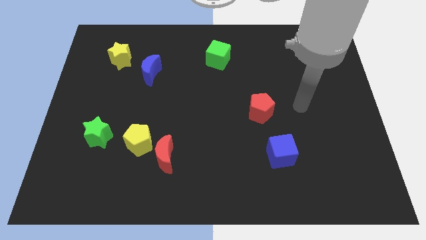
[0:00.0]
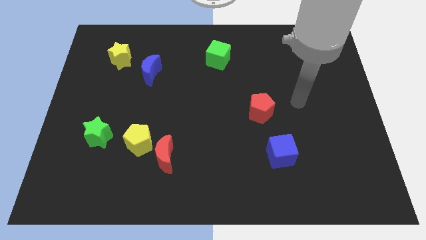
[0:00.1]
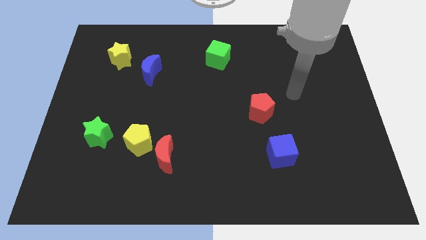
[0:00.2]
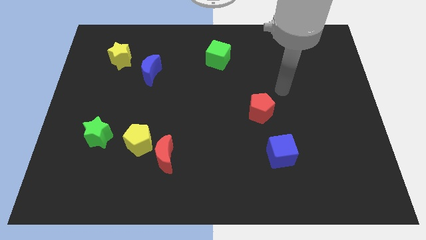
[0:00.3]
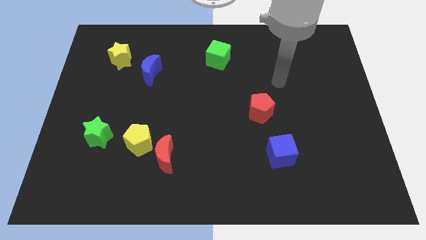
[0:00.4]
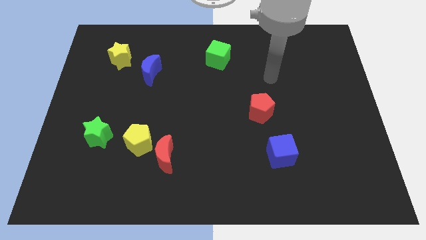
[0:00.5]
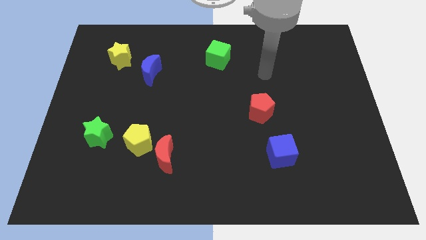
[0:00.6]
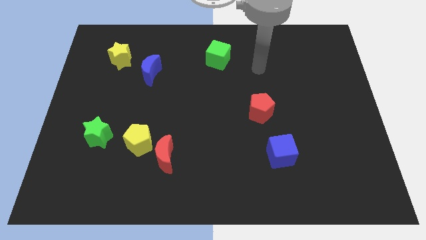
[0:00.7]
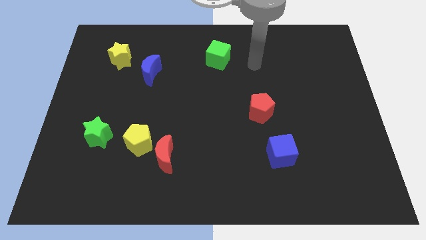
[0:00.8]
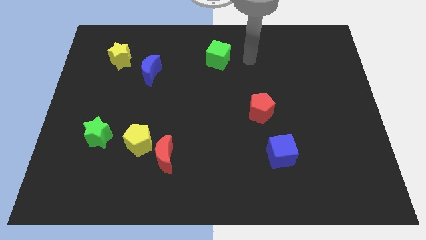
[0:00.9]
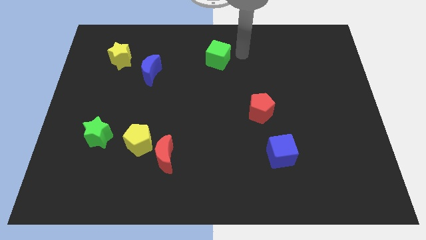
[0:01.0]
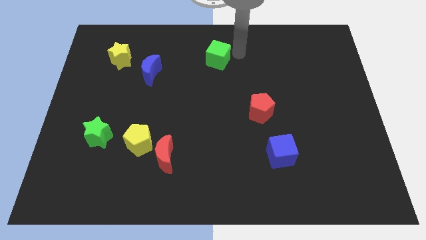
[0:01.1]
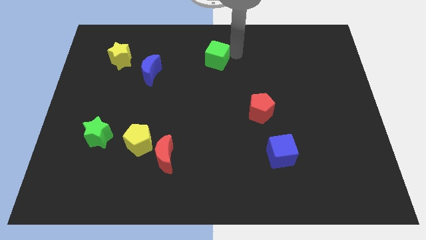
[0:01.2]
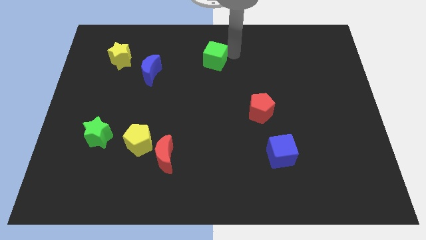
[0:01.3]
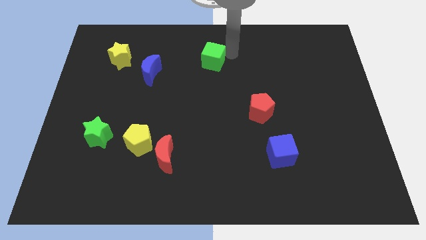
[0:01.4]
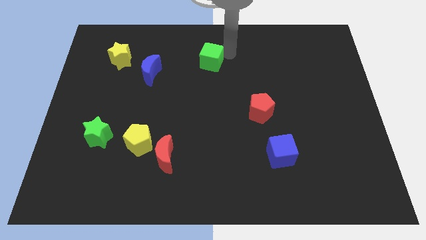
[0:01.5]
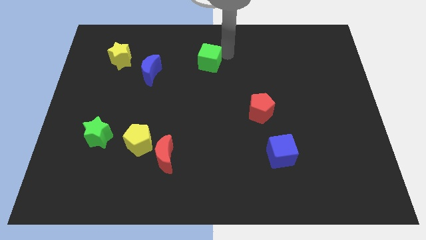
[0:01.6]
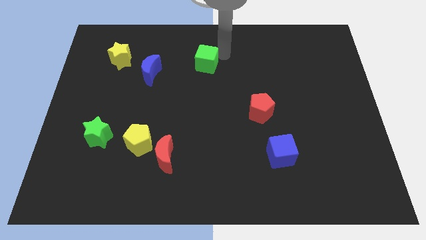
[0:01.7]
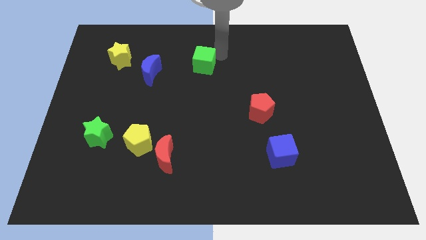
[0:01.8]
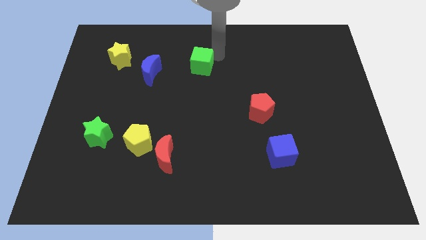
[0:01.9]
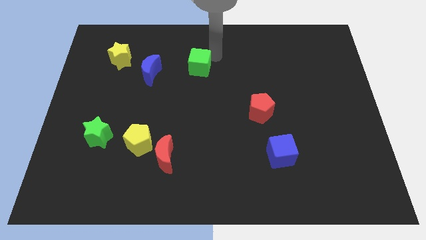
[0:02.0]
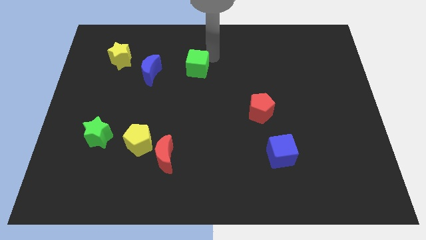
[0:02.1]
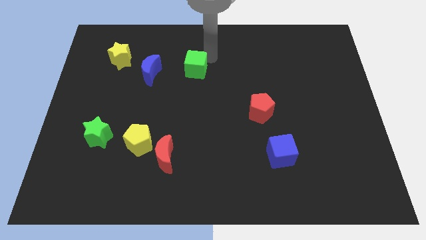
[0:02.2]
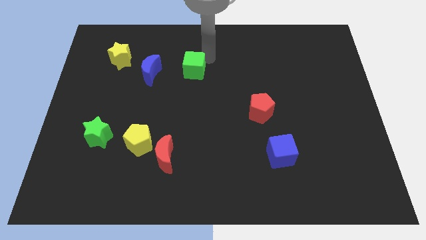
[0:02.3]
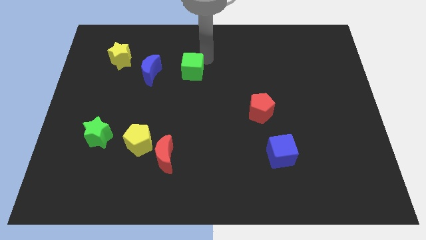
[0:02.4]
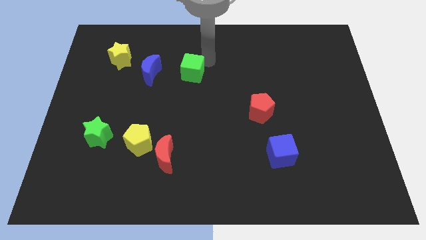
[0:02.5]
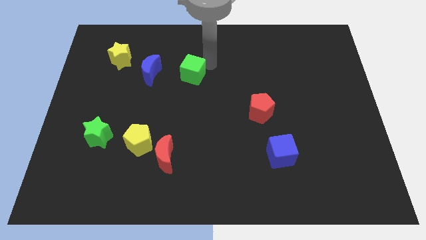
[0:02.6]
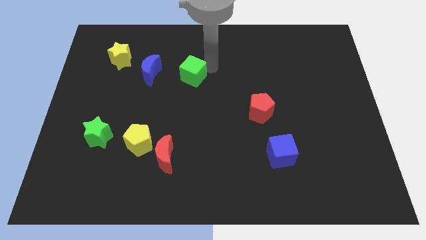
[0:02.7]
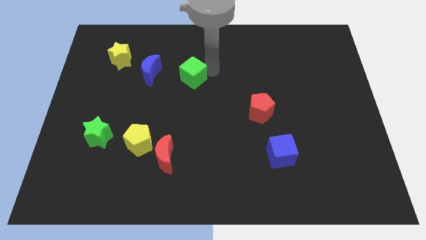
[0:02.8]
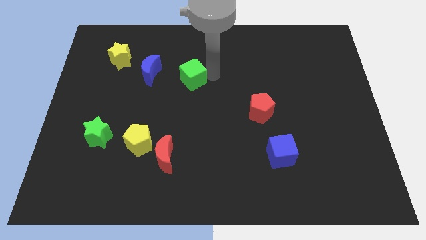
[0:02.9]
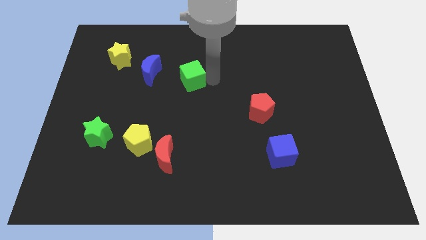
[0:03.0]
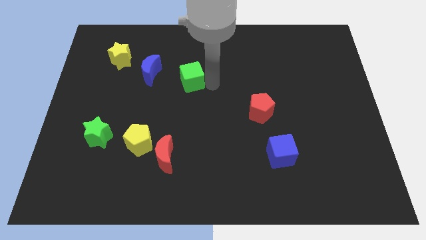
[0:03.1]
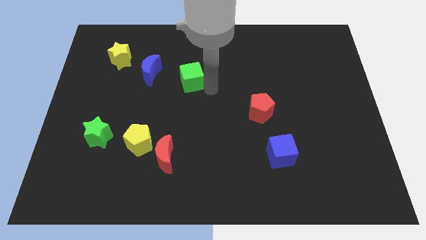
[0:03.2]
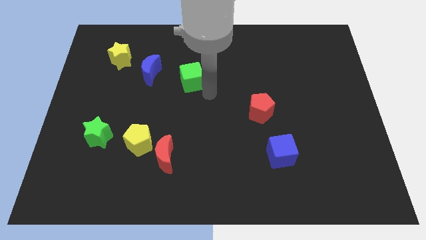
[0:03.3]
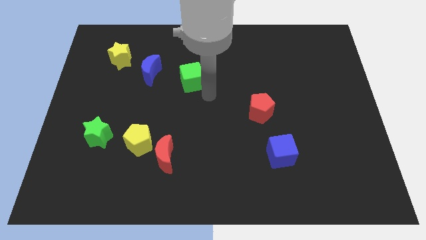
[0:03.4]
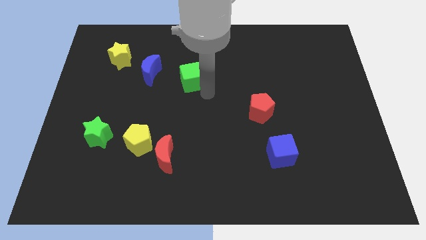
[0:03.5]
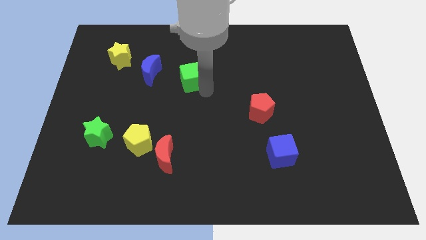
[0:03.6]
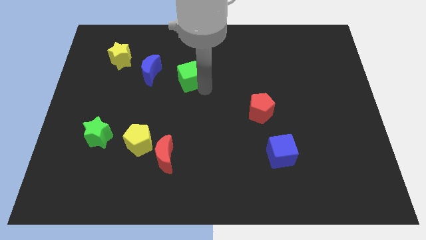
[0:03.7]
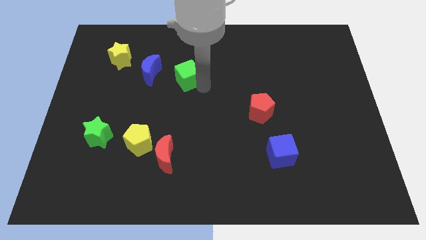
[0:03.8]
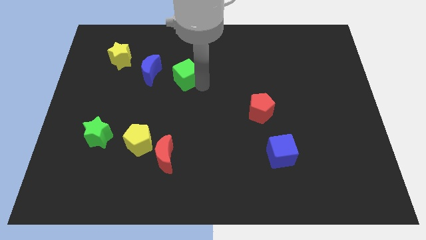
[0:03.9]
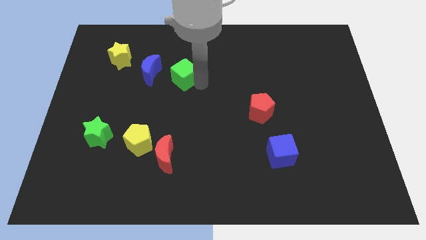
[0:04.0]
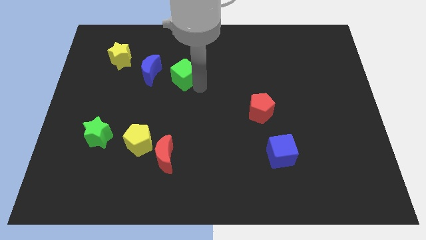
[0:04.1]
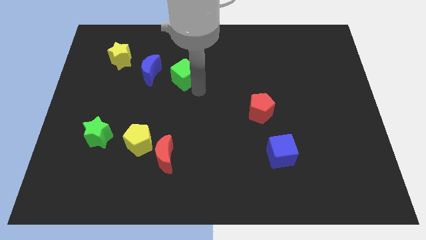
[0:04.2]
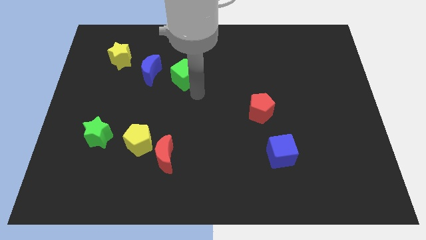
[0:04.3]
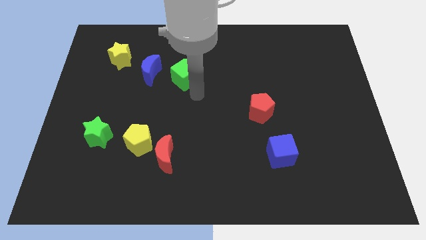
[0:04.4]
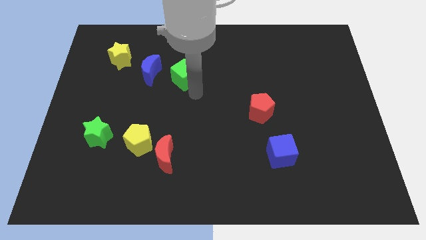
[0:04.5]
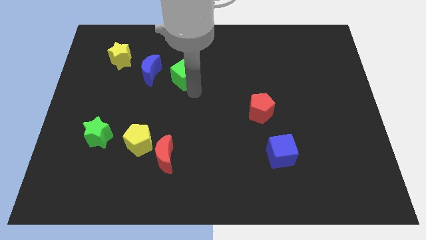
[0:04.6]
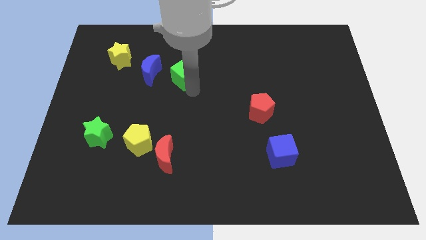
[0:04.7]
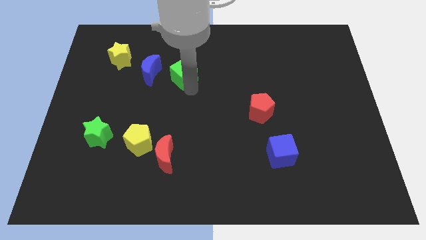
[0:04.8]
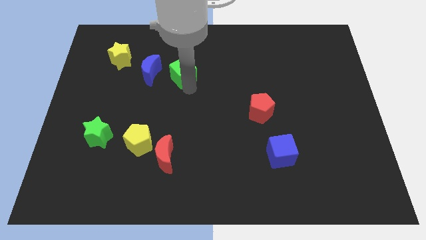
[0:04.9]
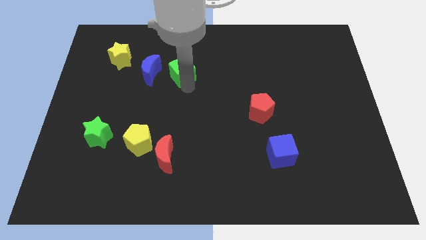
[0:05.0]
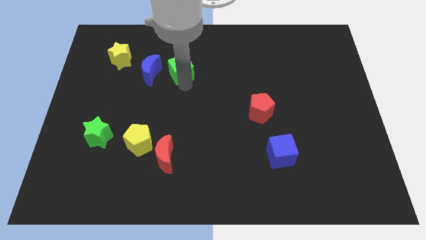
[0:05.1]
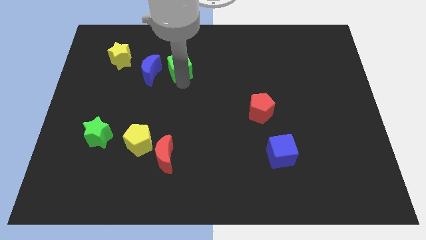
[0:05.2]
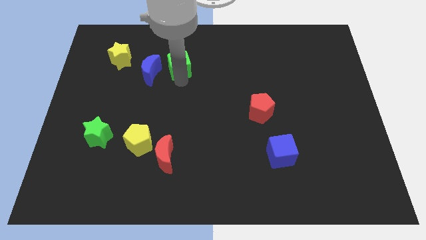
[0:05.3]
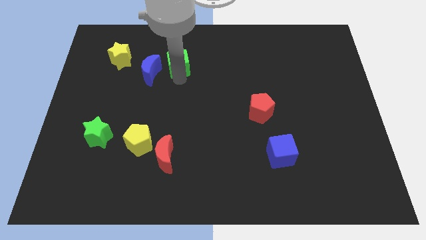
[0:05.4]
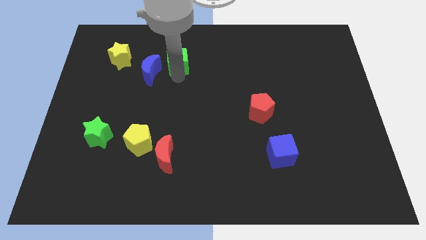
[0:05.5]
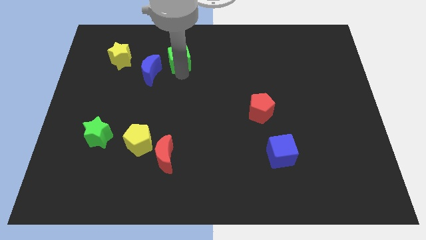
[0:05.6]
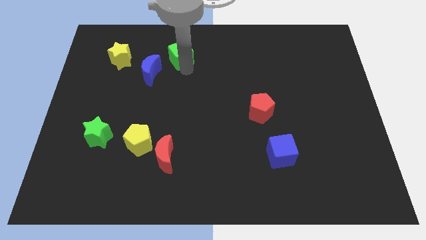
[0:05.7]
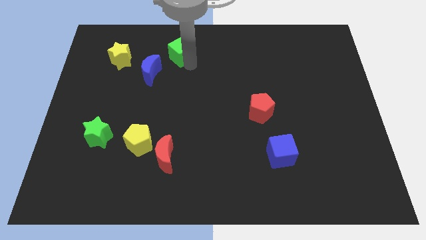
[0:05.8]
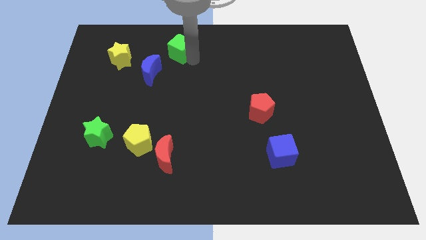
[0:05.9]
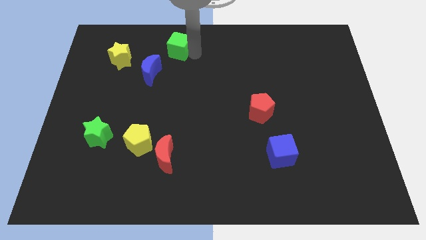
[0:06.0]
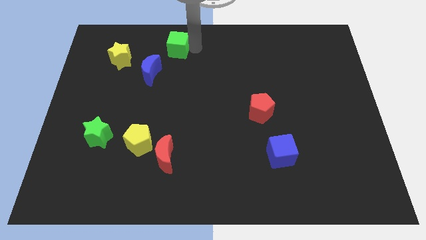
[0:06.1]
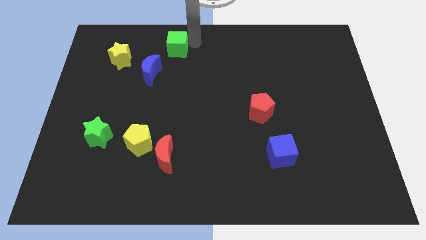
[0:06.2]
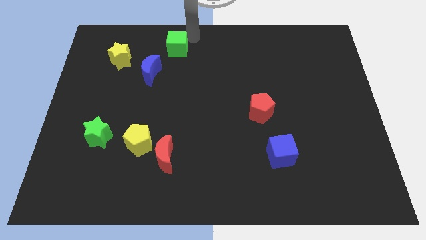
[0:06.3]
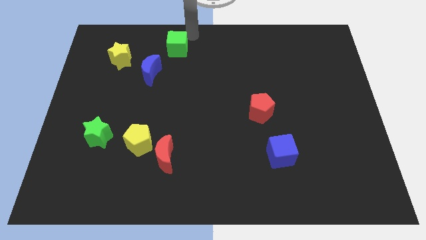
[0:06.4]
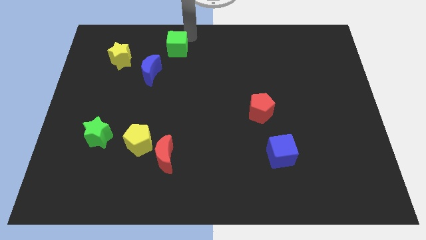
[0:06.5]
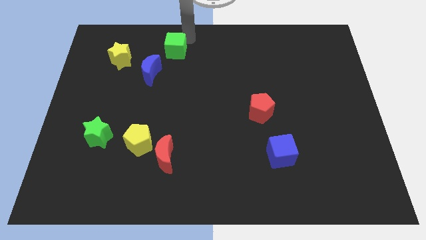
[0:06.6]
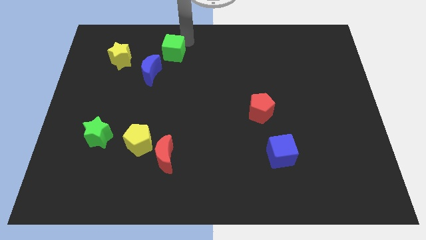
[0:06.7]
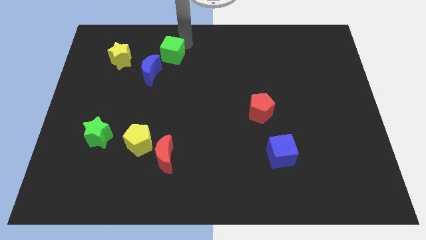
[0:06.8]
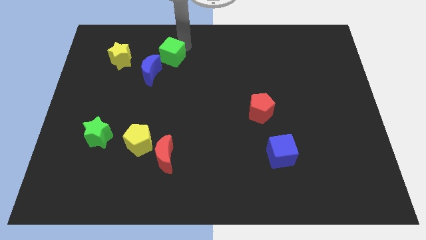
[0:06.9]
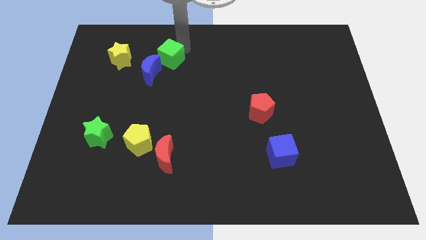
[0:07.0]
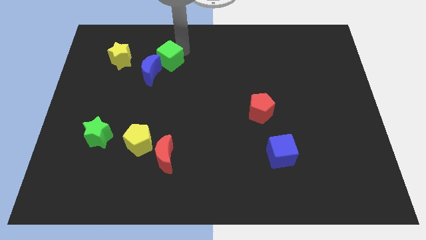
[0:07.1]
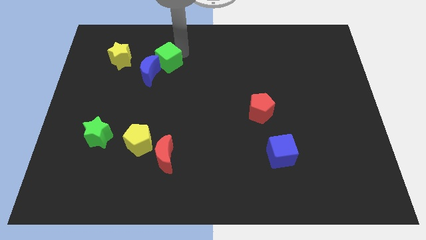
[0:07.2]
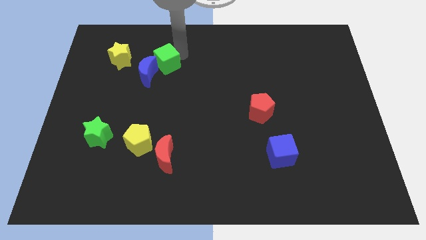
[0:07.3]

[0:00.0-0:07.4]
put the green cube towards the blue moon
